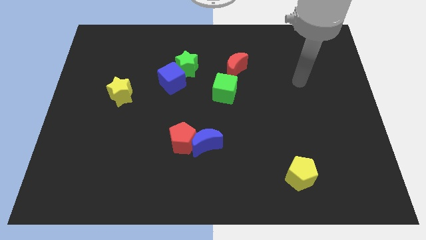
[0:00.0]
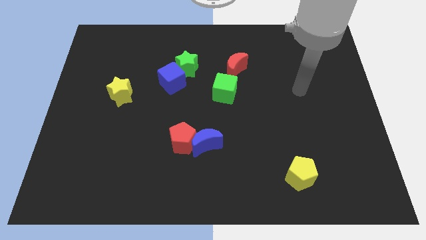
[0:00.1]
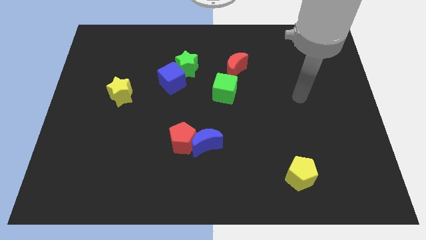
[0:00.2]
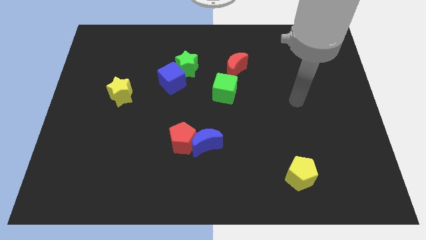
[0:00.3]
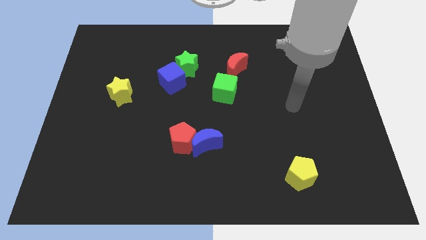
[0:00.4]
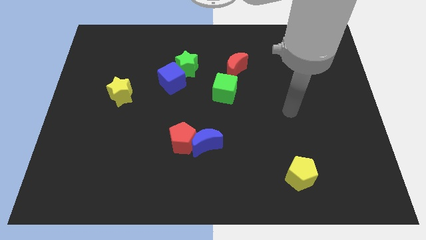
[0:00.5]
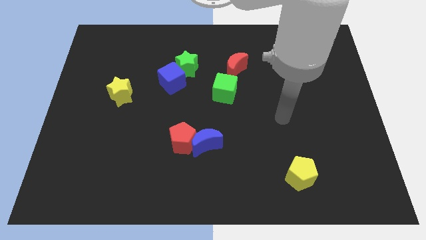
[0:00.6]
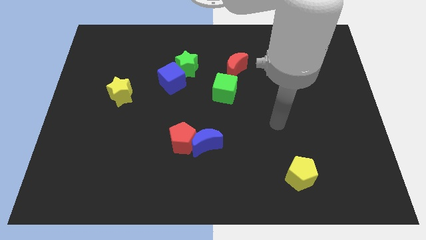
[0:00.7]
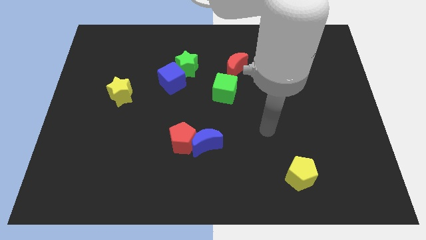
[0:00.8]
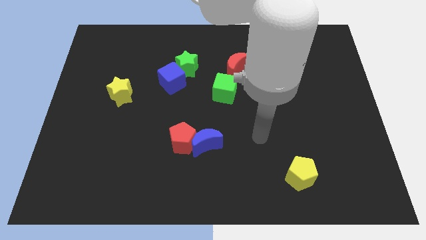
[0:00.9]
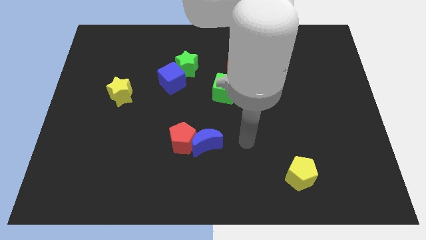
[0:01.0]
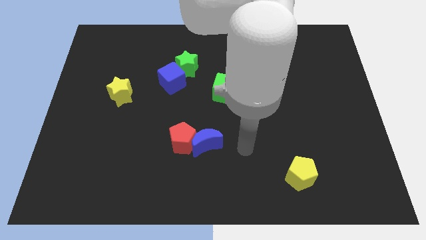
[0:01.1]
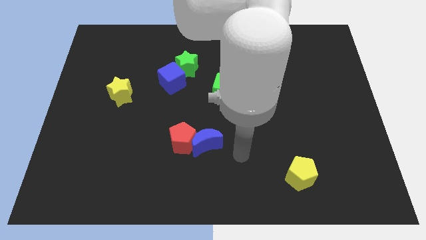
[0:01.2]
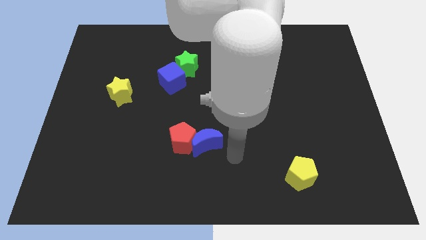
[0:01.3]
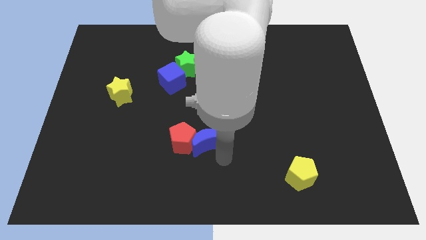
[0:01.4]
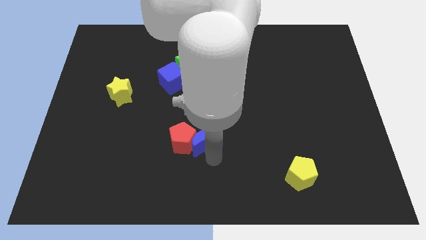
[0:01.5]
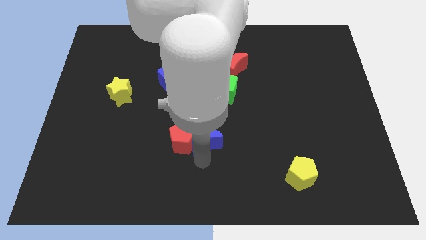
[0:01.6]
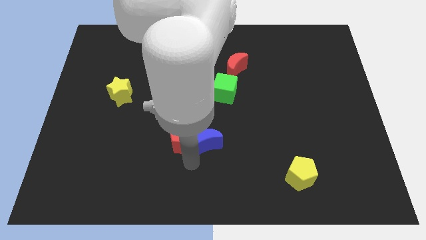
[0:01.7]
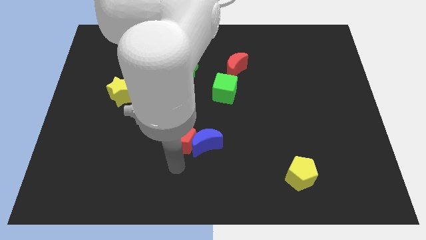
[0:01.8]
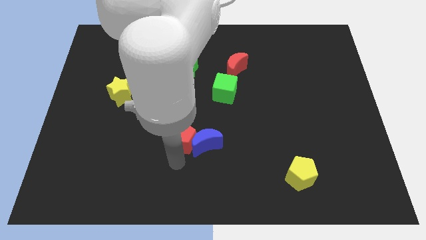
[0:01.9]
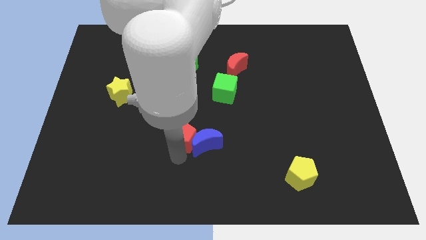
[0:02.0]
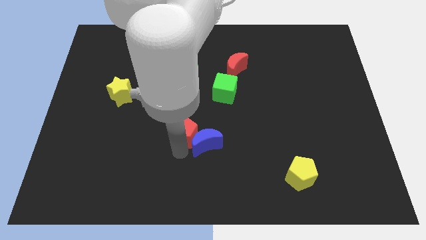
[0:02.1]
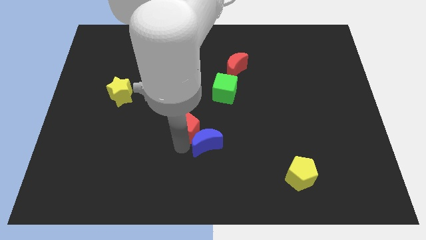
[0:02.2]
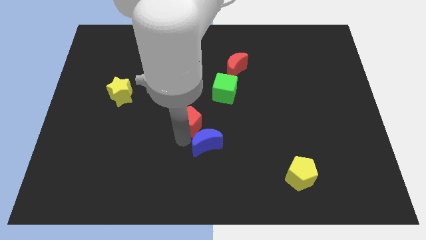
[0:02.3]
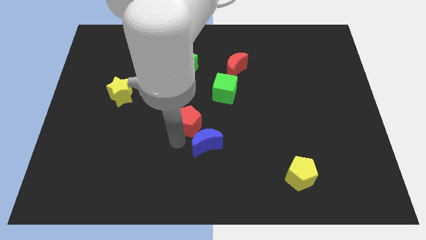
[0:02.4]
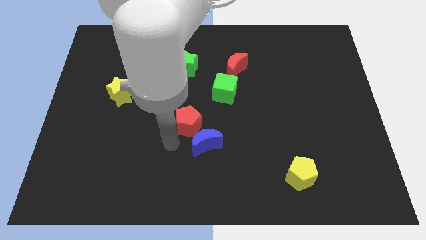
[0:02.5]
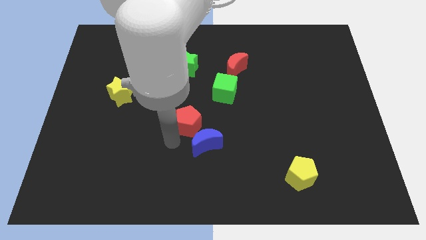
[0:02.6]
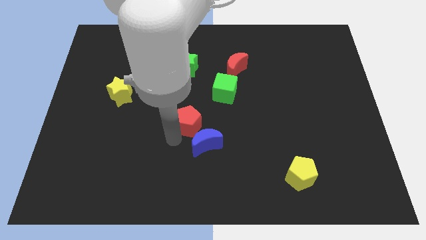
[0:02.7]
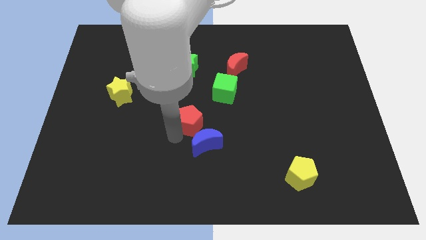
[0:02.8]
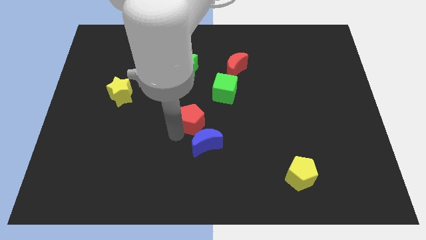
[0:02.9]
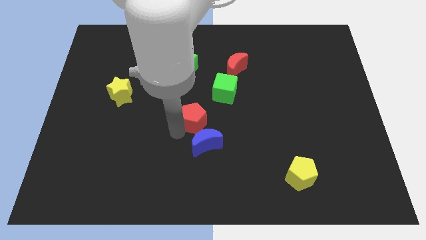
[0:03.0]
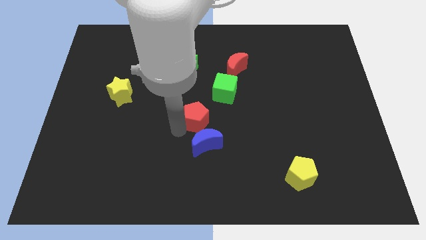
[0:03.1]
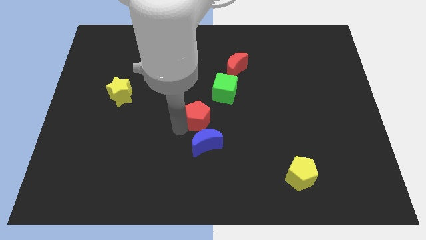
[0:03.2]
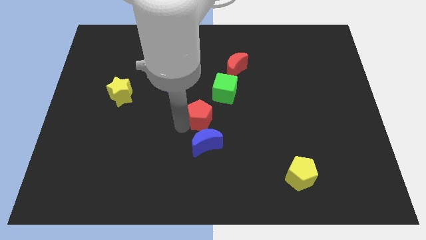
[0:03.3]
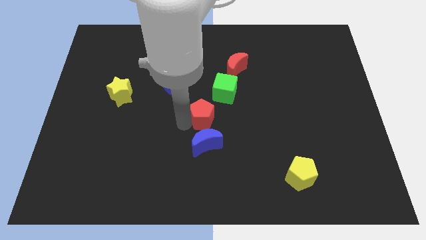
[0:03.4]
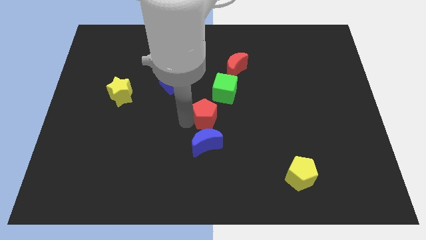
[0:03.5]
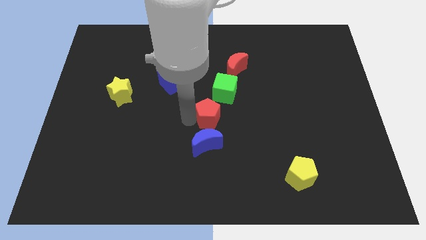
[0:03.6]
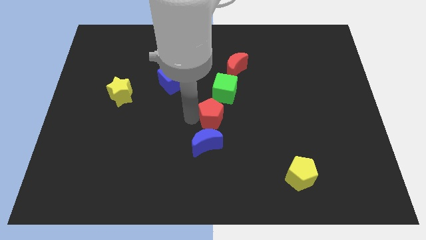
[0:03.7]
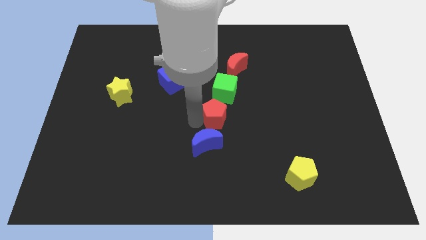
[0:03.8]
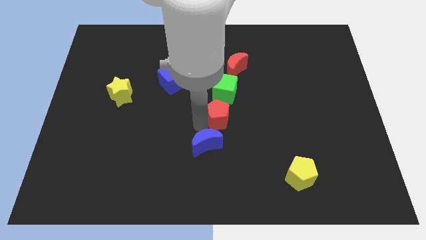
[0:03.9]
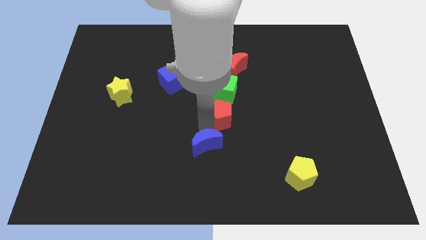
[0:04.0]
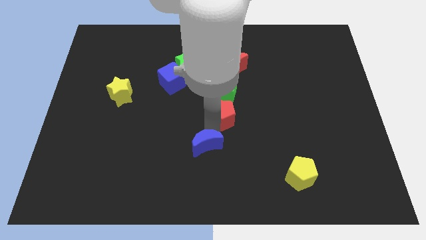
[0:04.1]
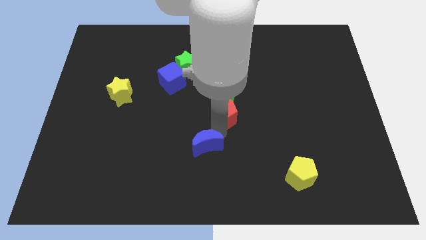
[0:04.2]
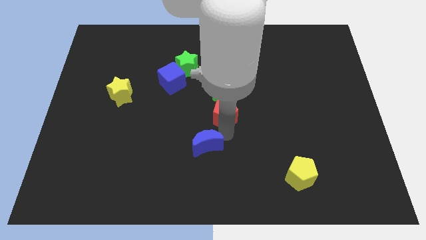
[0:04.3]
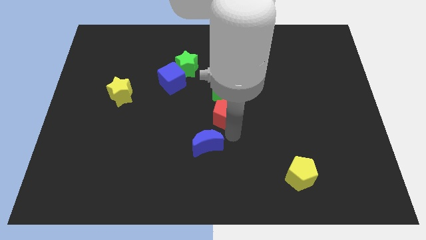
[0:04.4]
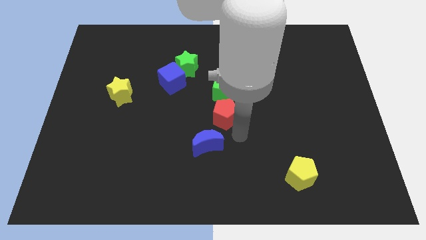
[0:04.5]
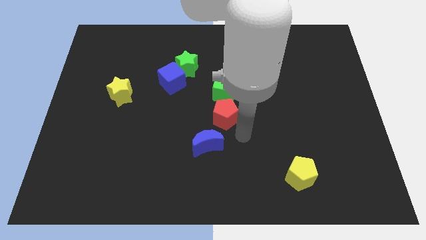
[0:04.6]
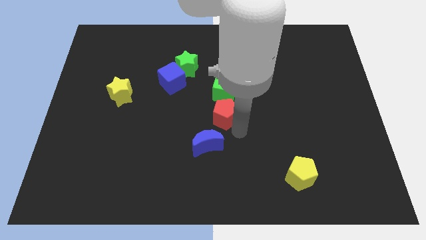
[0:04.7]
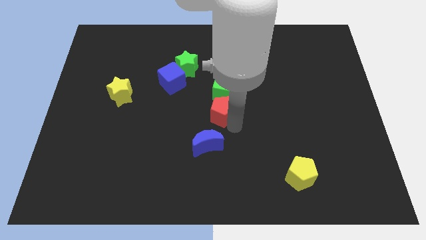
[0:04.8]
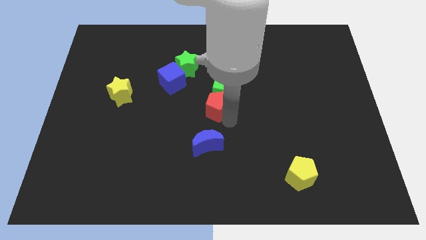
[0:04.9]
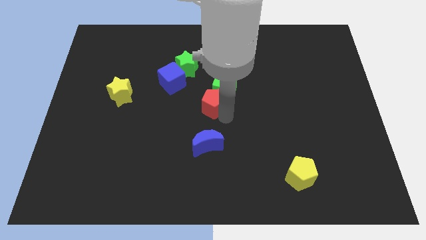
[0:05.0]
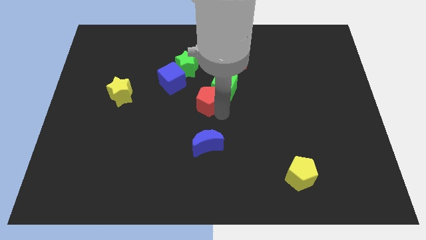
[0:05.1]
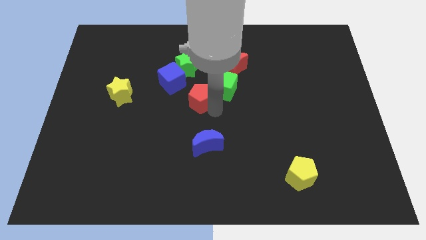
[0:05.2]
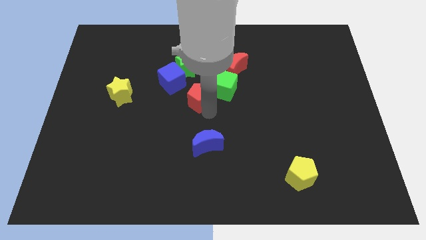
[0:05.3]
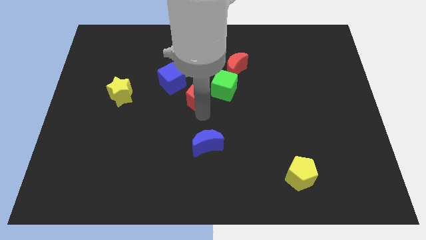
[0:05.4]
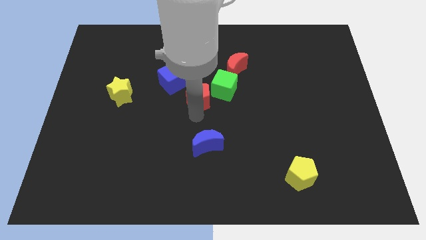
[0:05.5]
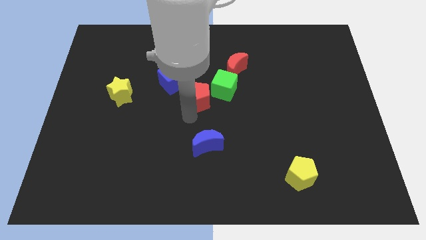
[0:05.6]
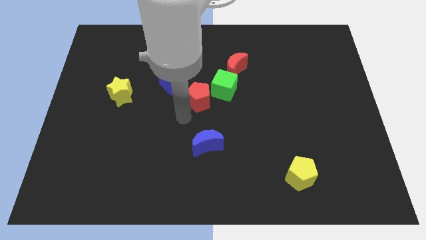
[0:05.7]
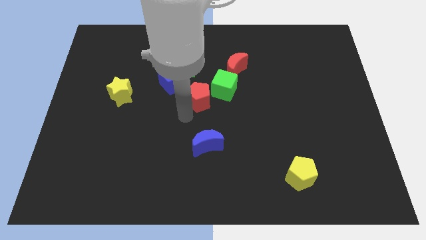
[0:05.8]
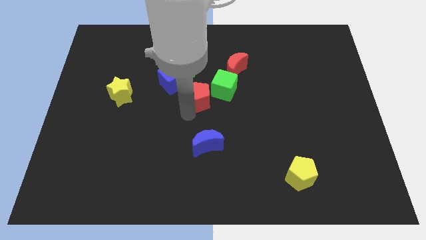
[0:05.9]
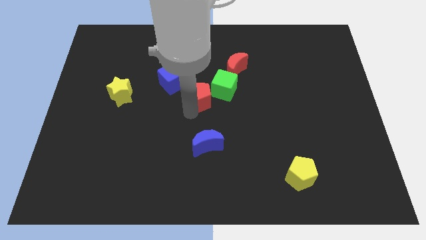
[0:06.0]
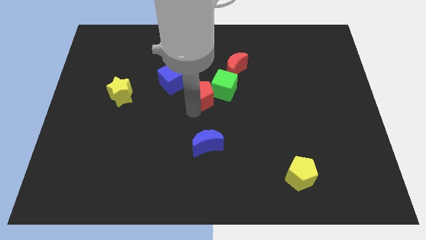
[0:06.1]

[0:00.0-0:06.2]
put the red pentagon to the bottom left side of the red moon
